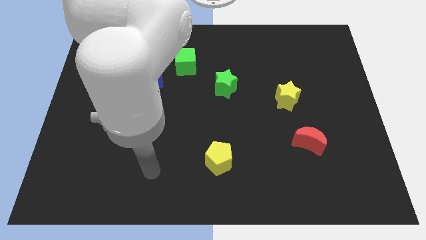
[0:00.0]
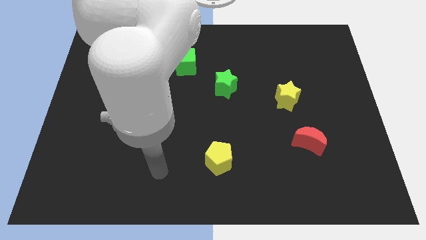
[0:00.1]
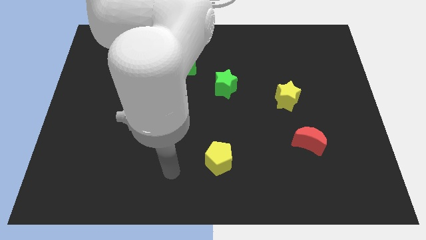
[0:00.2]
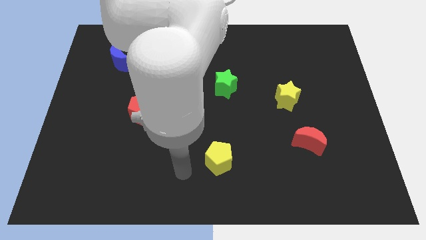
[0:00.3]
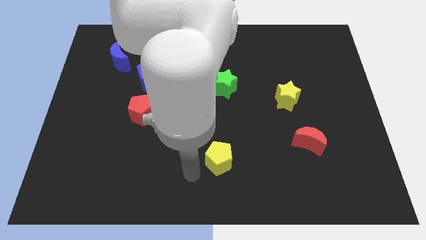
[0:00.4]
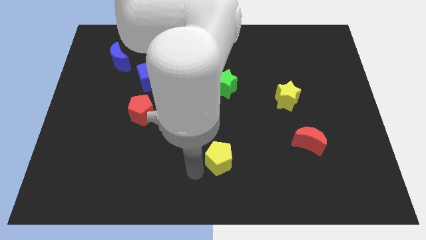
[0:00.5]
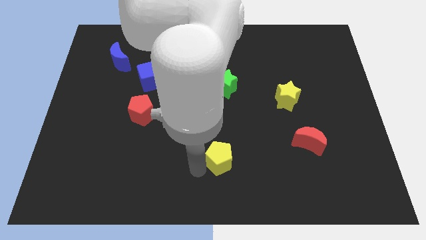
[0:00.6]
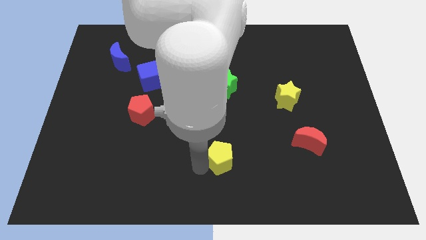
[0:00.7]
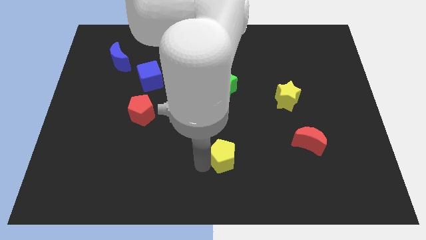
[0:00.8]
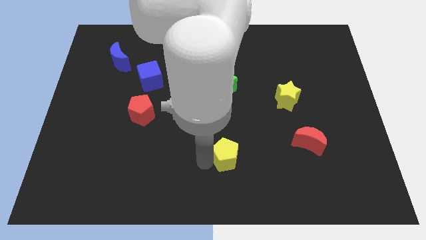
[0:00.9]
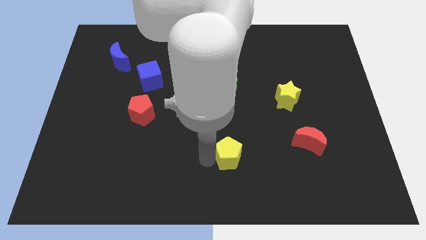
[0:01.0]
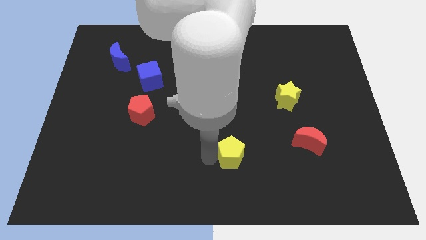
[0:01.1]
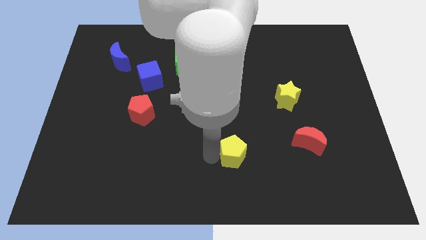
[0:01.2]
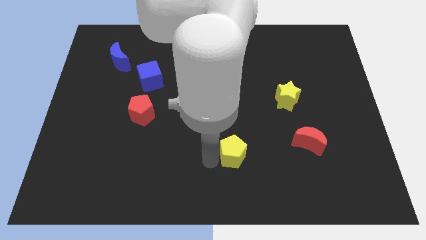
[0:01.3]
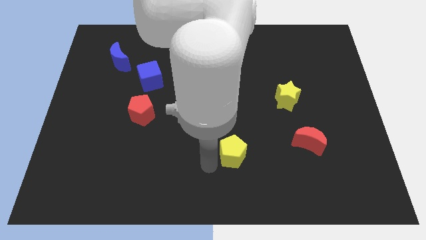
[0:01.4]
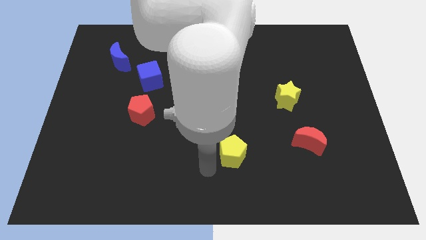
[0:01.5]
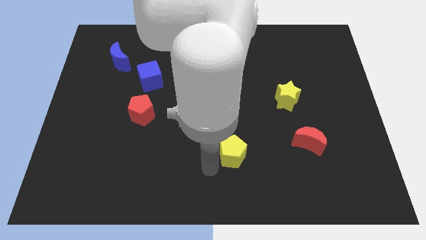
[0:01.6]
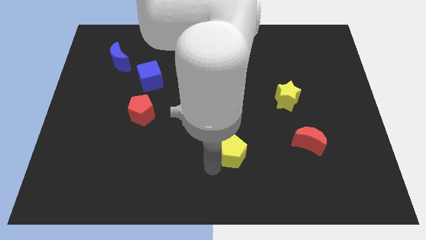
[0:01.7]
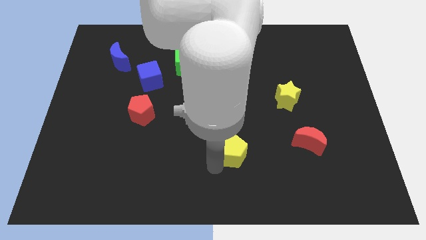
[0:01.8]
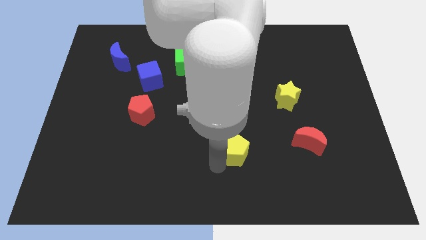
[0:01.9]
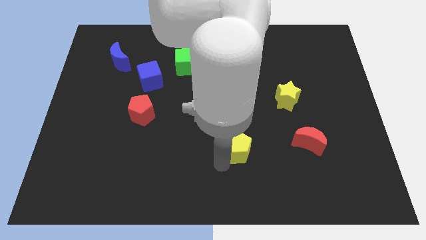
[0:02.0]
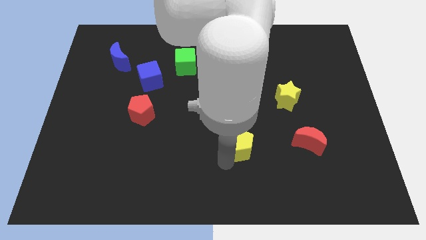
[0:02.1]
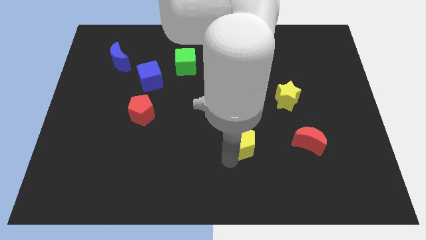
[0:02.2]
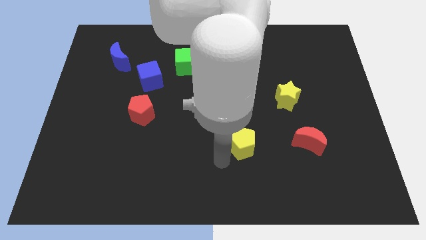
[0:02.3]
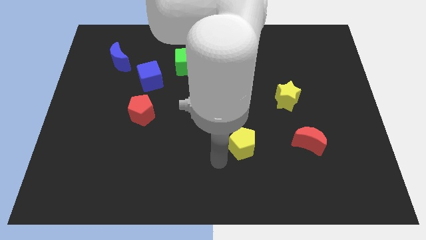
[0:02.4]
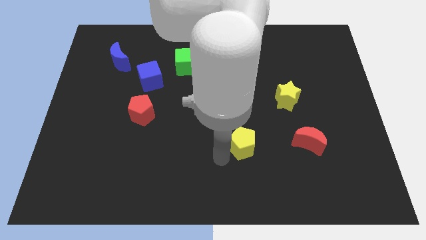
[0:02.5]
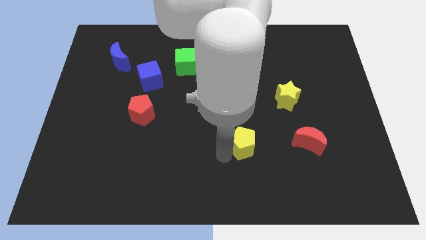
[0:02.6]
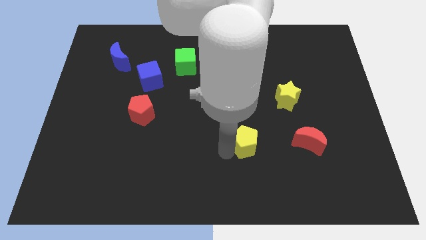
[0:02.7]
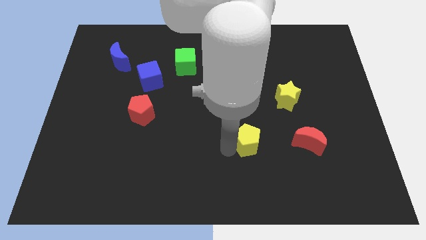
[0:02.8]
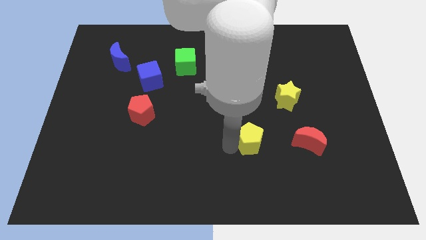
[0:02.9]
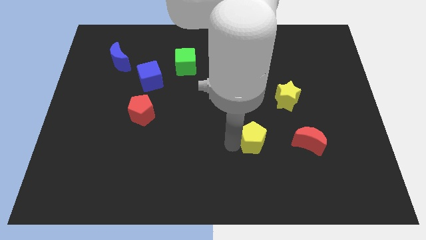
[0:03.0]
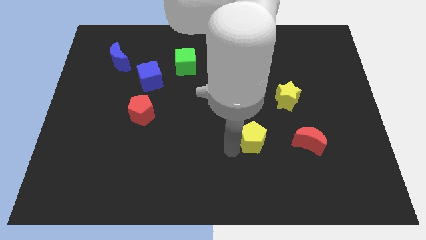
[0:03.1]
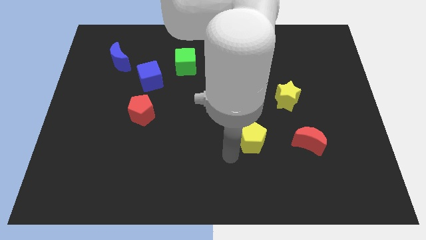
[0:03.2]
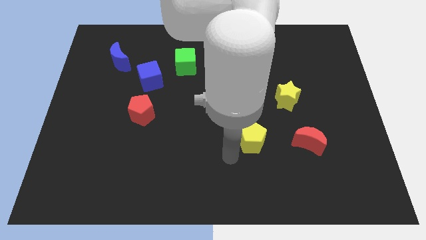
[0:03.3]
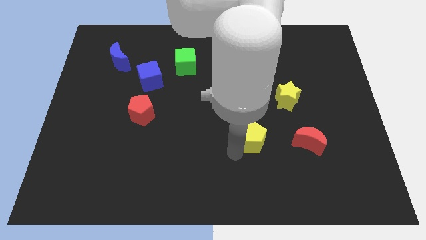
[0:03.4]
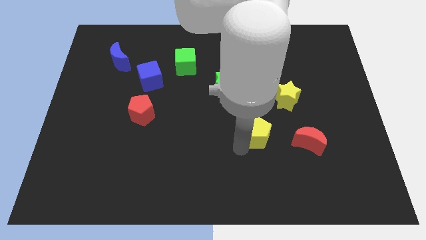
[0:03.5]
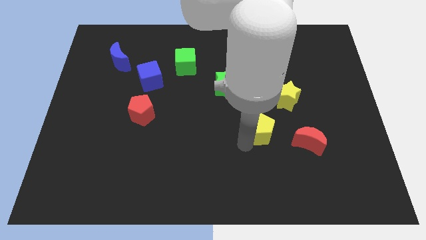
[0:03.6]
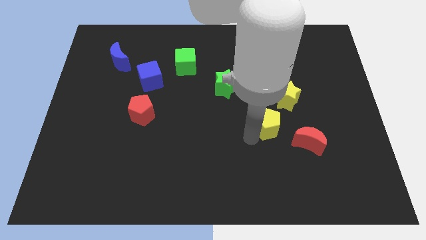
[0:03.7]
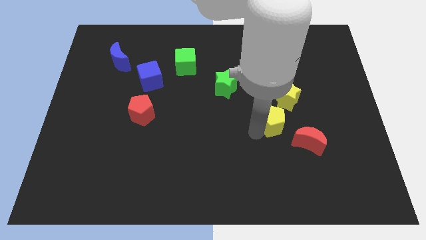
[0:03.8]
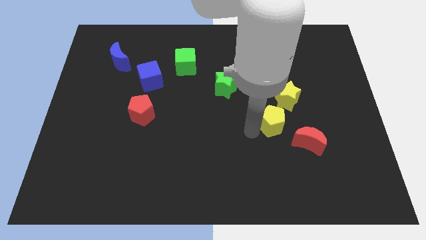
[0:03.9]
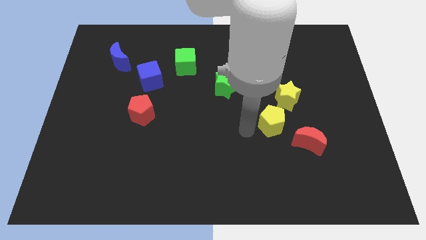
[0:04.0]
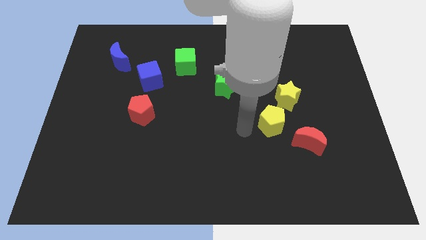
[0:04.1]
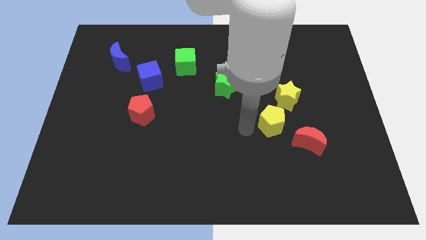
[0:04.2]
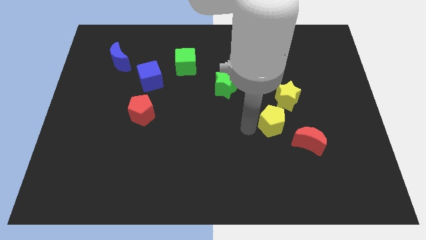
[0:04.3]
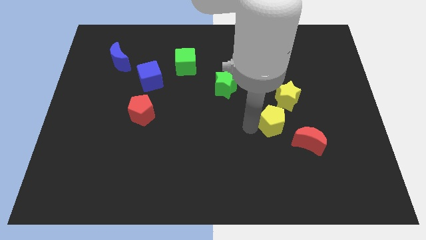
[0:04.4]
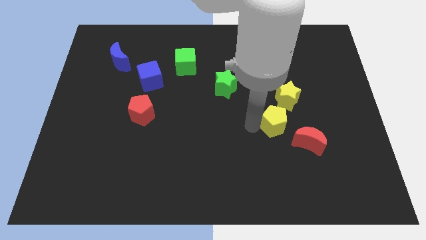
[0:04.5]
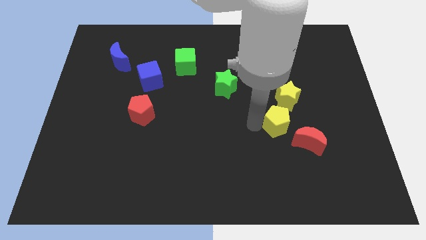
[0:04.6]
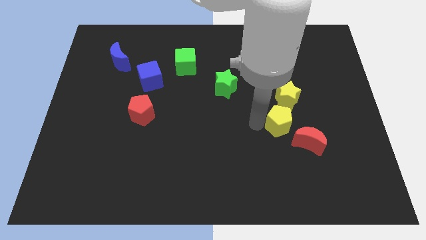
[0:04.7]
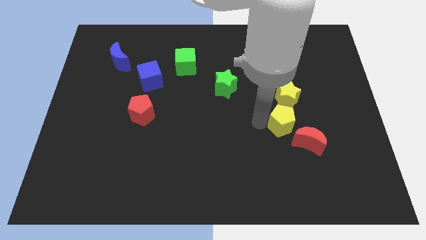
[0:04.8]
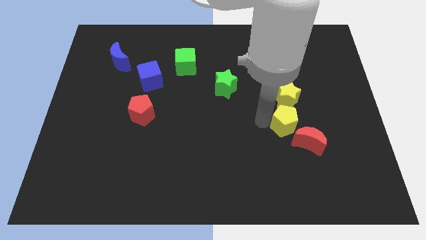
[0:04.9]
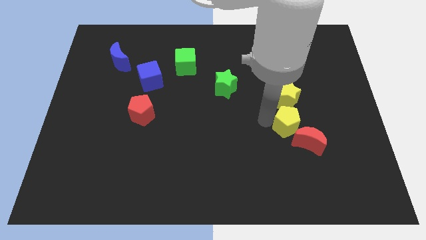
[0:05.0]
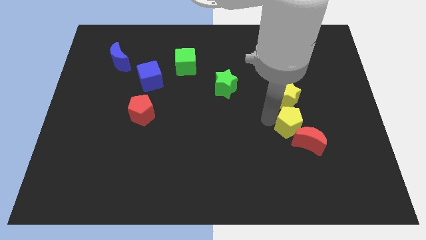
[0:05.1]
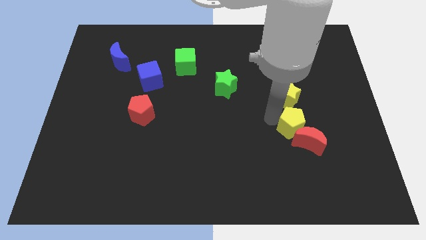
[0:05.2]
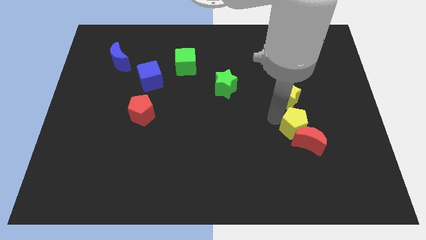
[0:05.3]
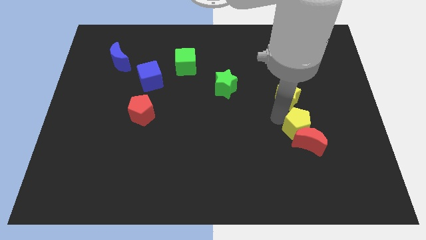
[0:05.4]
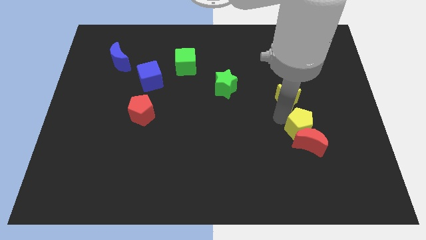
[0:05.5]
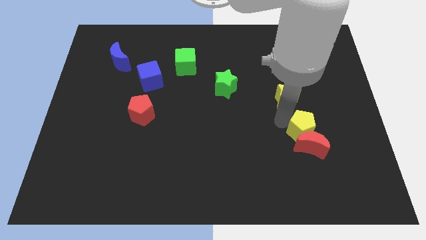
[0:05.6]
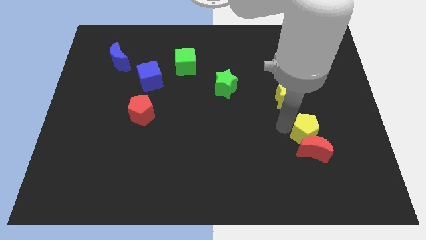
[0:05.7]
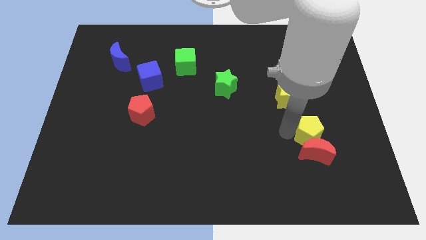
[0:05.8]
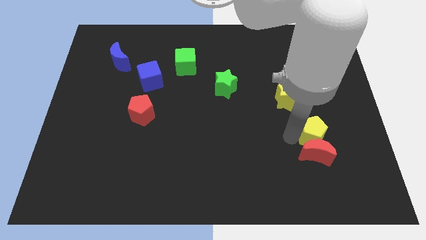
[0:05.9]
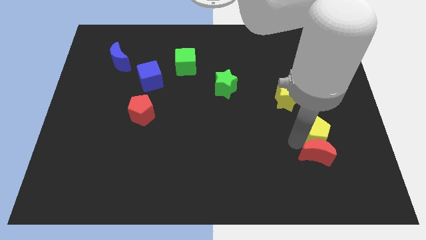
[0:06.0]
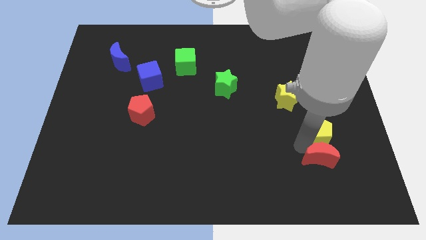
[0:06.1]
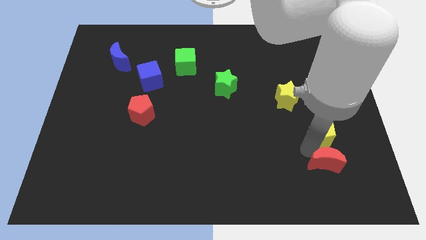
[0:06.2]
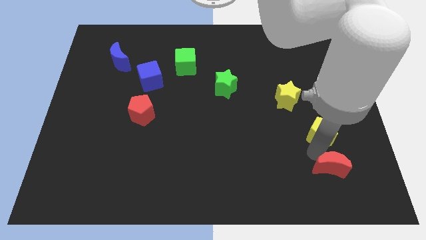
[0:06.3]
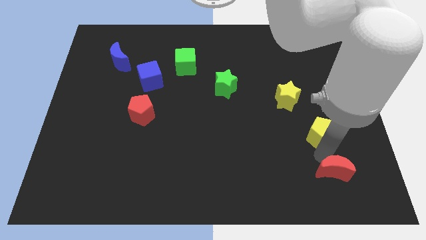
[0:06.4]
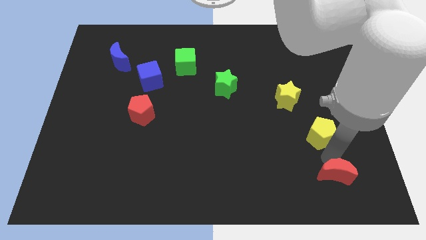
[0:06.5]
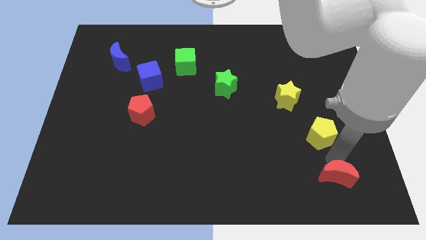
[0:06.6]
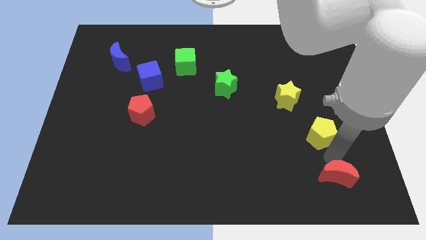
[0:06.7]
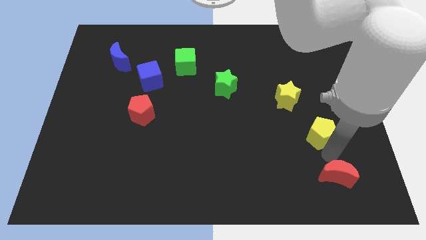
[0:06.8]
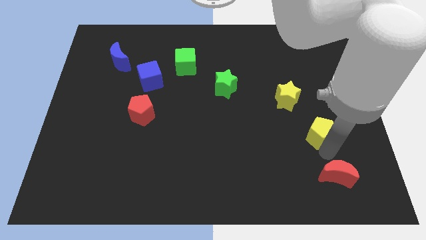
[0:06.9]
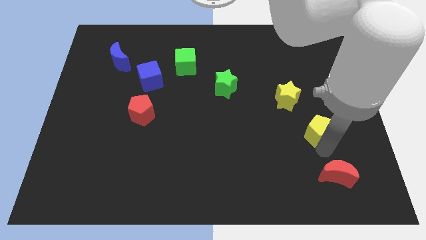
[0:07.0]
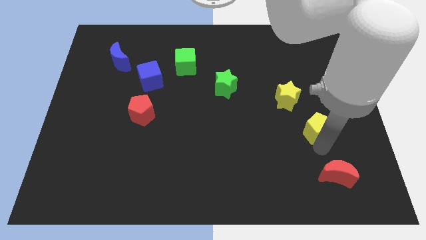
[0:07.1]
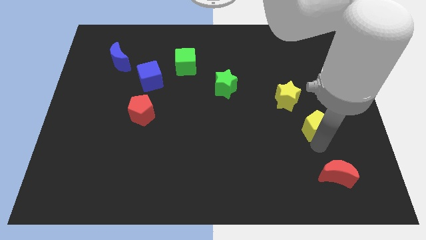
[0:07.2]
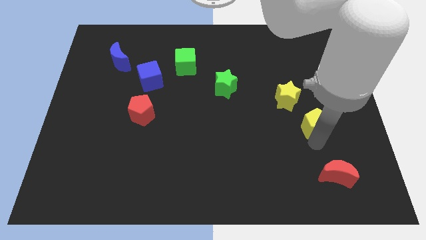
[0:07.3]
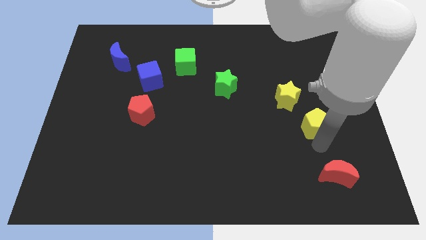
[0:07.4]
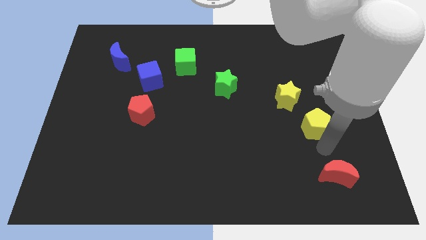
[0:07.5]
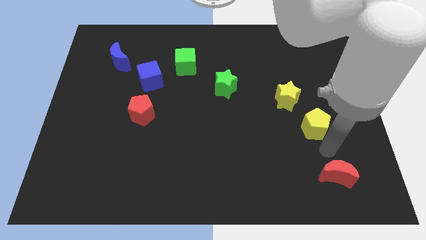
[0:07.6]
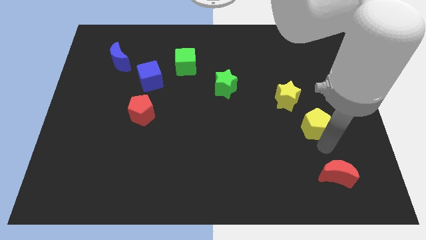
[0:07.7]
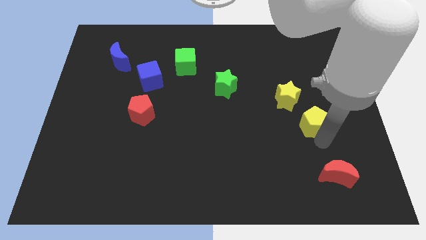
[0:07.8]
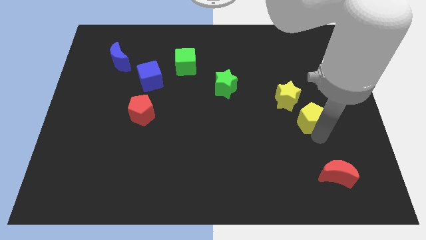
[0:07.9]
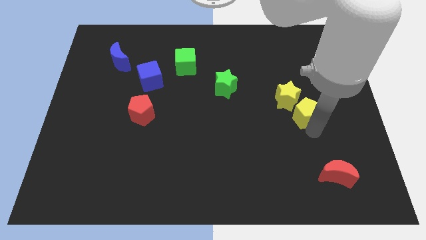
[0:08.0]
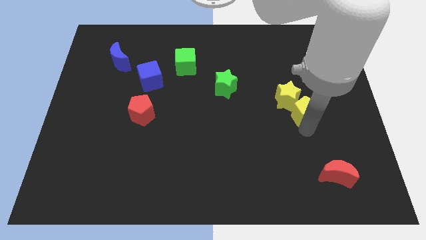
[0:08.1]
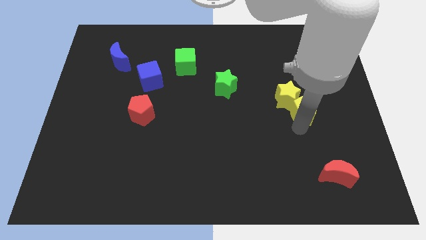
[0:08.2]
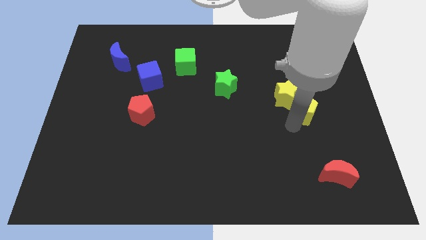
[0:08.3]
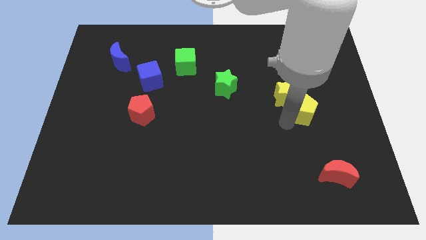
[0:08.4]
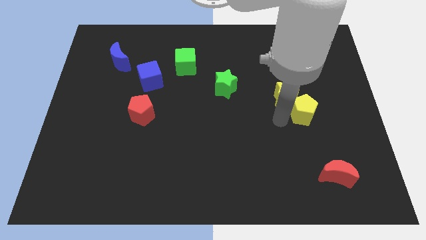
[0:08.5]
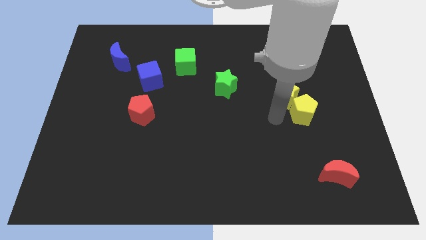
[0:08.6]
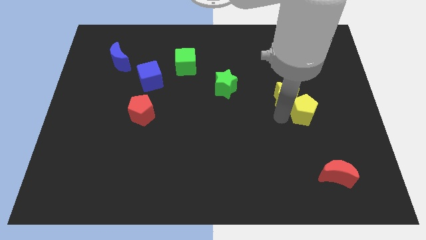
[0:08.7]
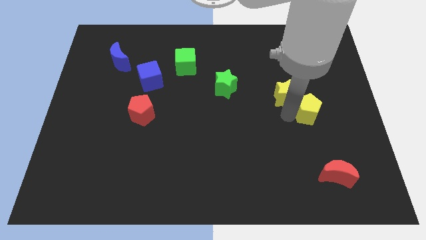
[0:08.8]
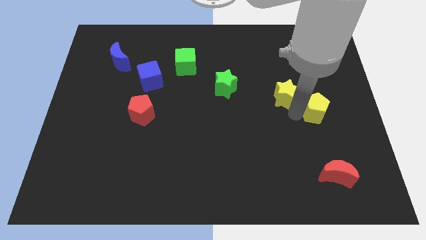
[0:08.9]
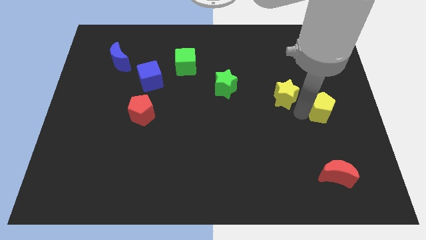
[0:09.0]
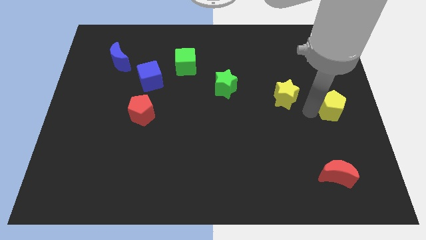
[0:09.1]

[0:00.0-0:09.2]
move the yellow pentagon to the center right
